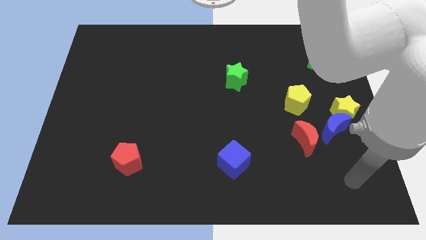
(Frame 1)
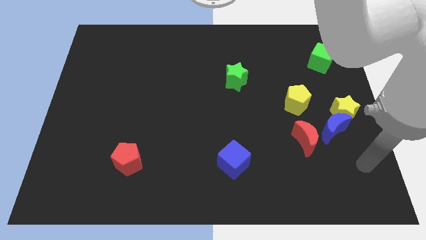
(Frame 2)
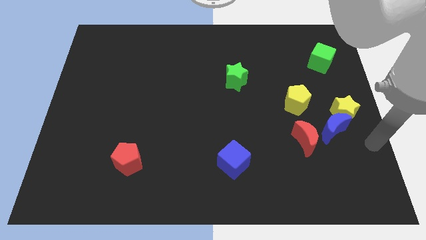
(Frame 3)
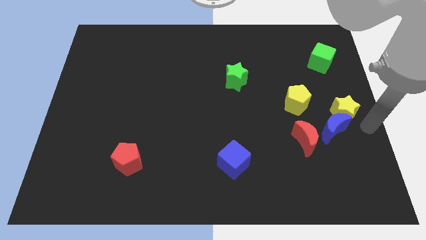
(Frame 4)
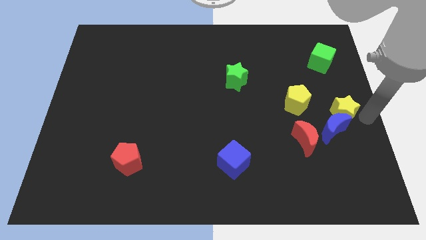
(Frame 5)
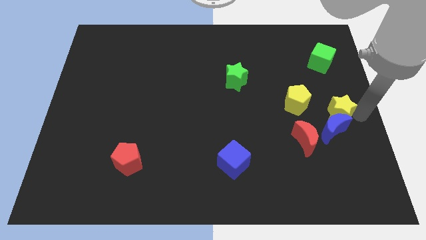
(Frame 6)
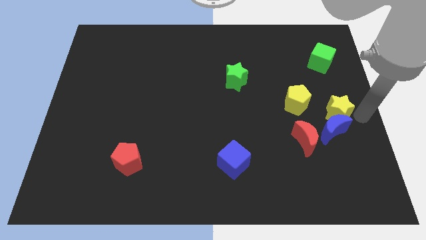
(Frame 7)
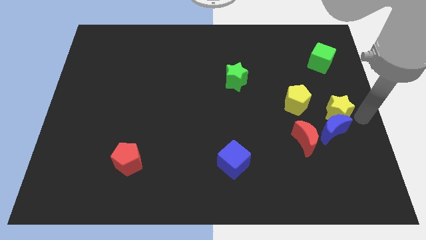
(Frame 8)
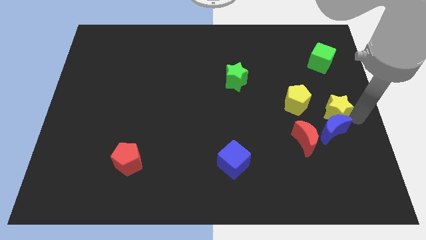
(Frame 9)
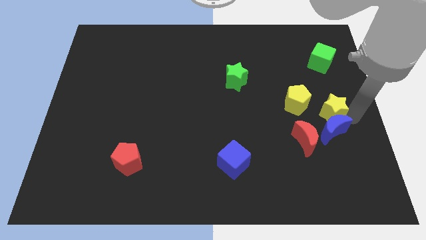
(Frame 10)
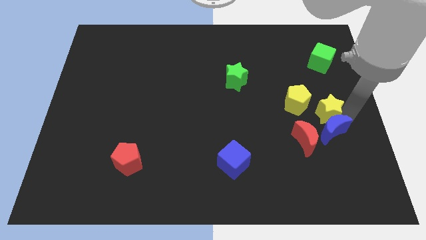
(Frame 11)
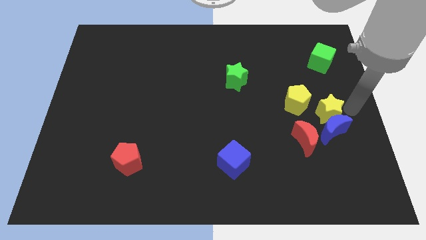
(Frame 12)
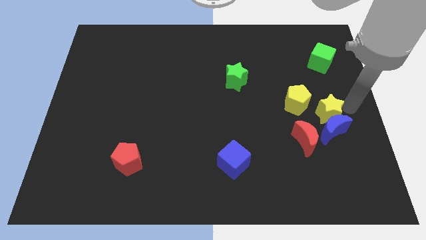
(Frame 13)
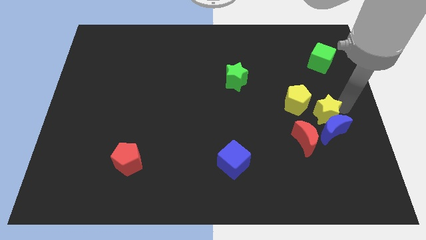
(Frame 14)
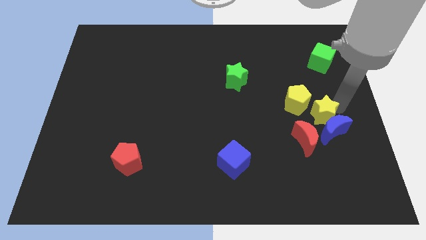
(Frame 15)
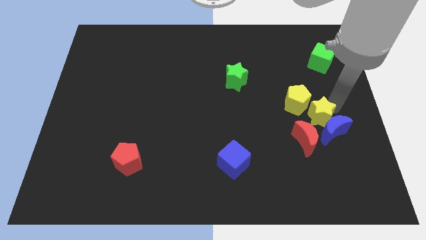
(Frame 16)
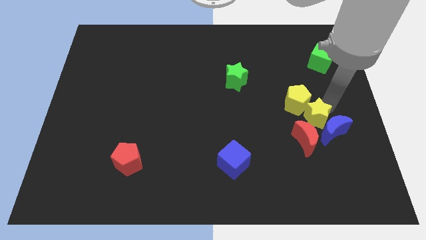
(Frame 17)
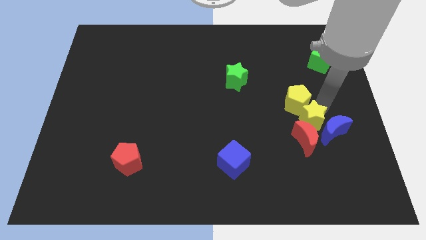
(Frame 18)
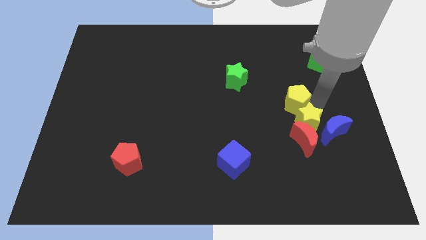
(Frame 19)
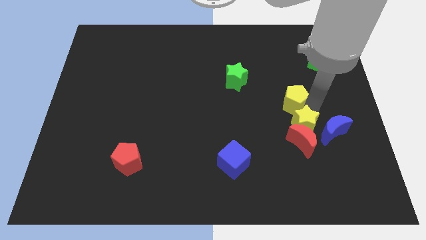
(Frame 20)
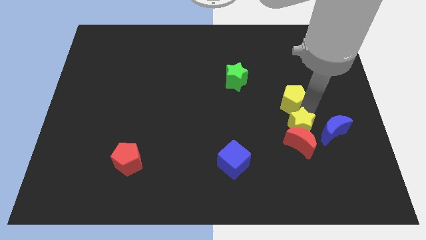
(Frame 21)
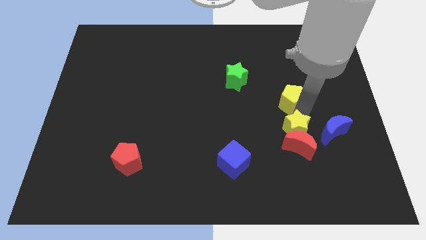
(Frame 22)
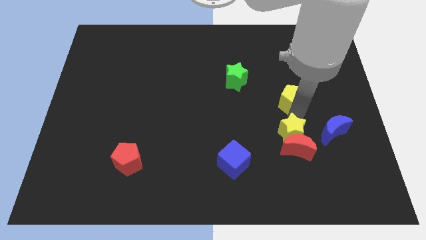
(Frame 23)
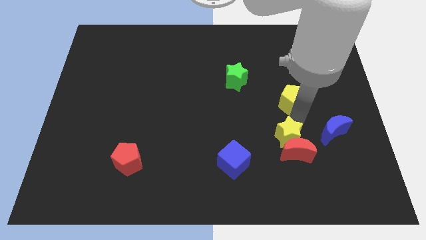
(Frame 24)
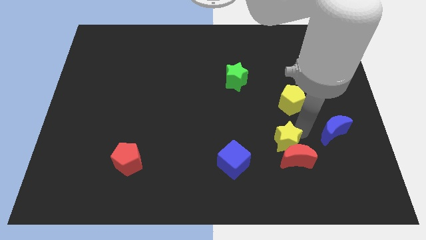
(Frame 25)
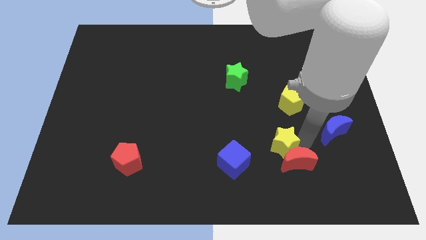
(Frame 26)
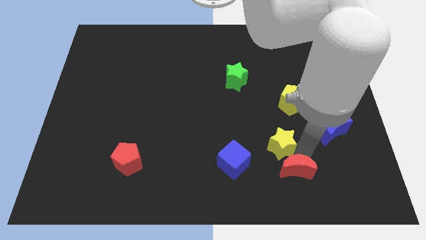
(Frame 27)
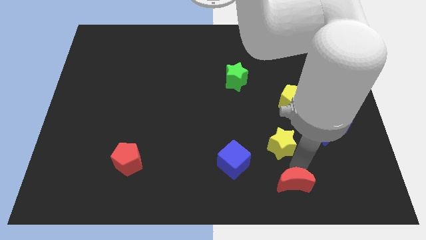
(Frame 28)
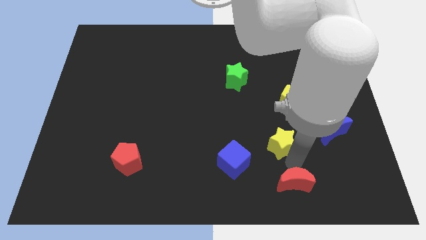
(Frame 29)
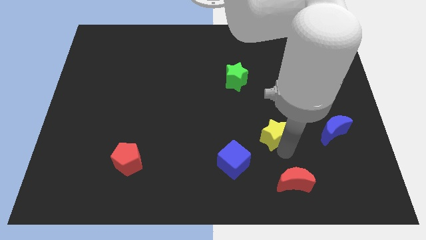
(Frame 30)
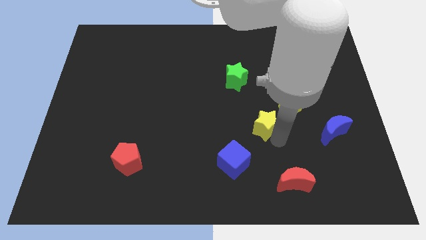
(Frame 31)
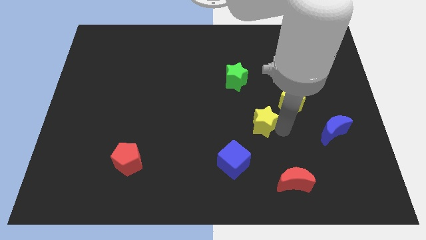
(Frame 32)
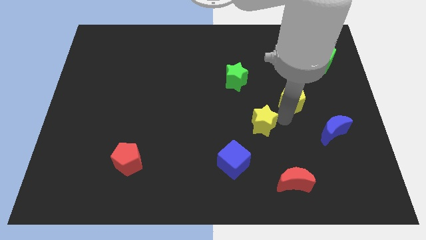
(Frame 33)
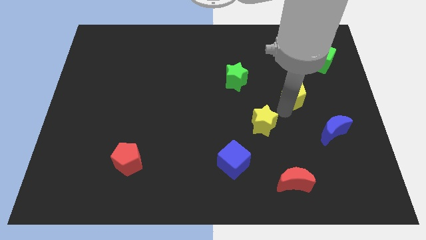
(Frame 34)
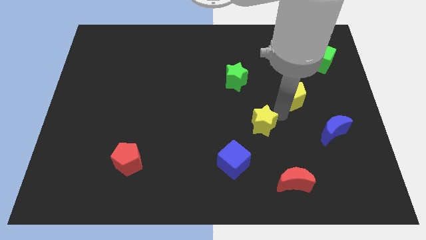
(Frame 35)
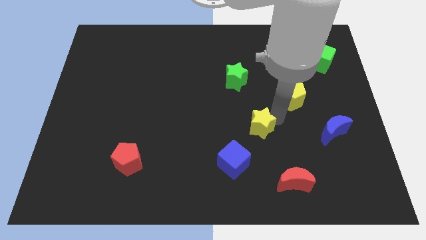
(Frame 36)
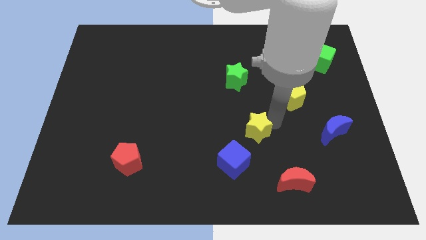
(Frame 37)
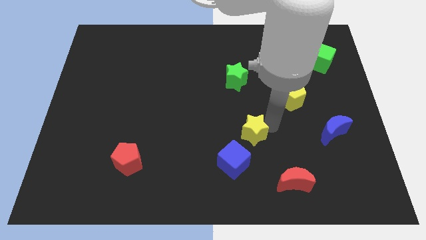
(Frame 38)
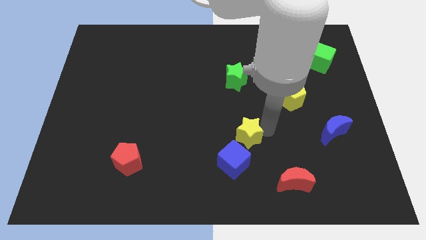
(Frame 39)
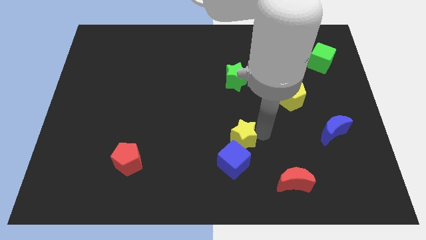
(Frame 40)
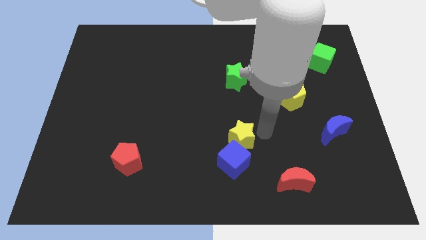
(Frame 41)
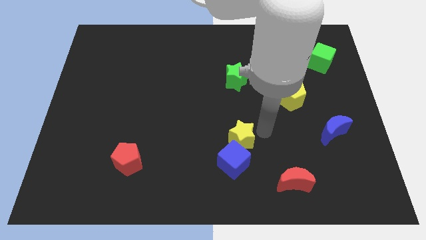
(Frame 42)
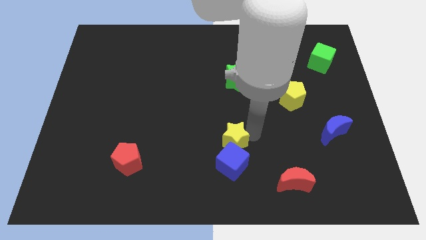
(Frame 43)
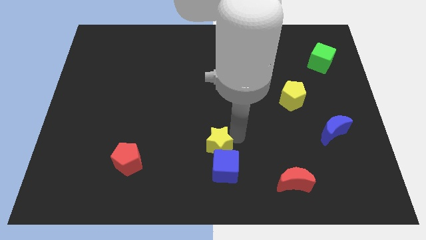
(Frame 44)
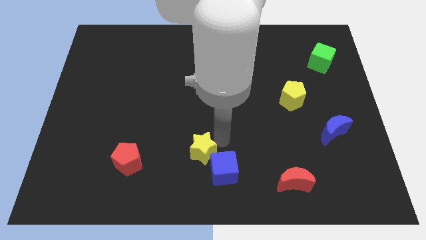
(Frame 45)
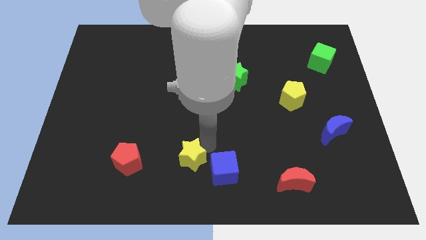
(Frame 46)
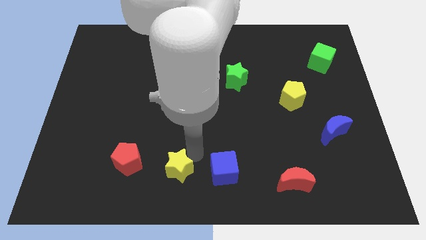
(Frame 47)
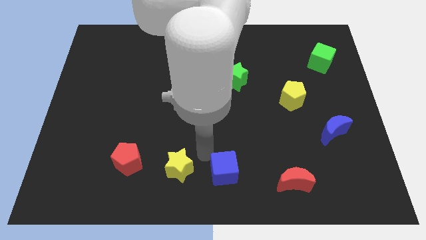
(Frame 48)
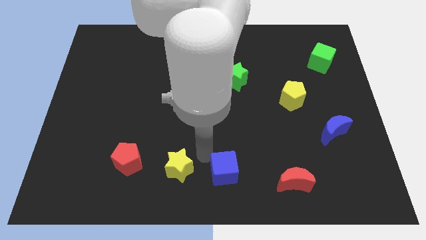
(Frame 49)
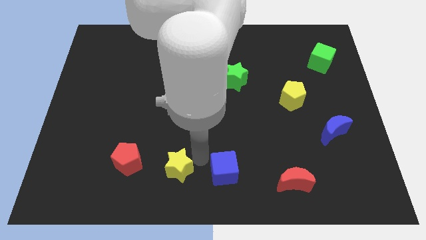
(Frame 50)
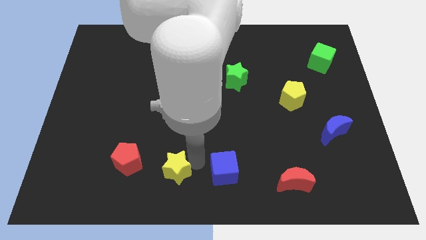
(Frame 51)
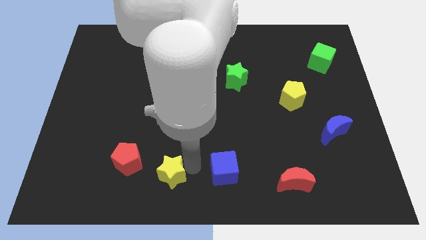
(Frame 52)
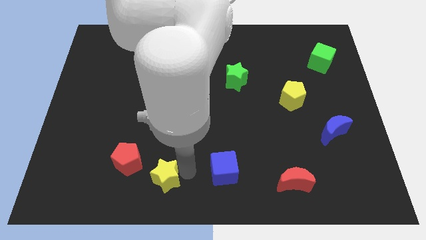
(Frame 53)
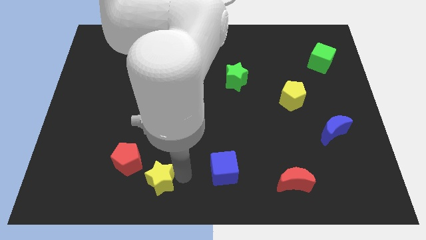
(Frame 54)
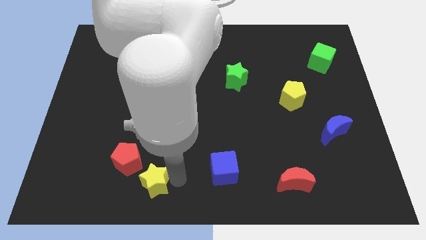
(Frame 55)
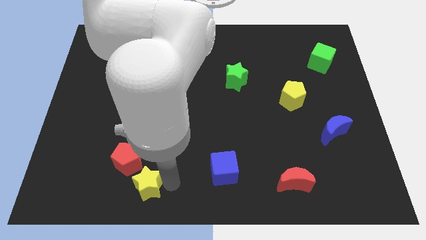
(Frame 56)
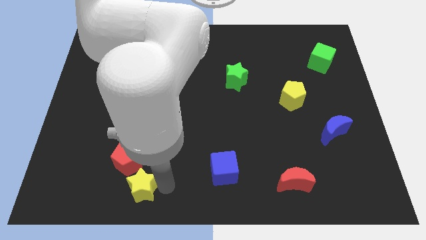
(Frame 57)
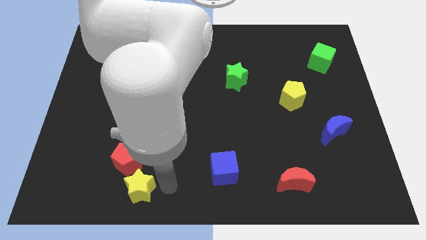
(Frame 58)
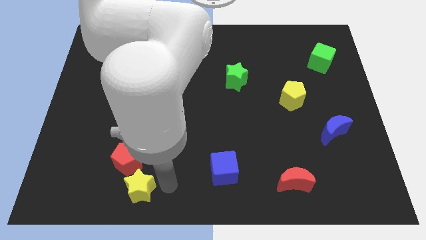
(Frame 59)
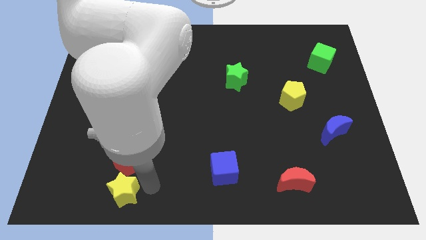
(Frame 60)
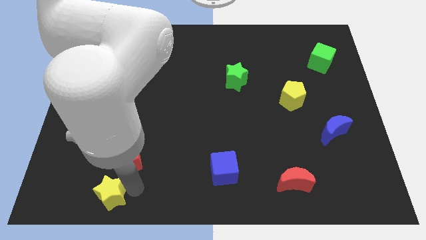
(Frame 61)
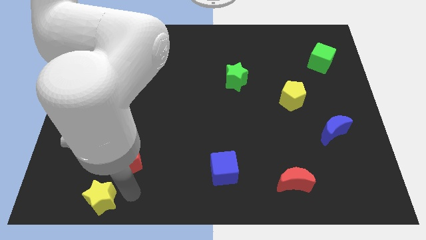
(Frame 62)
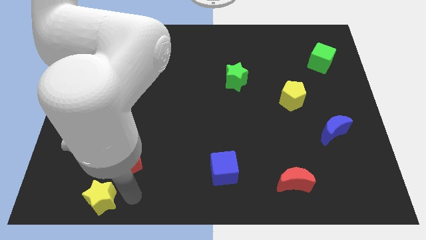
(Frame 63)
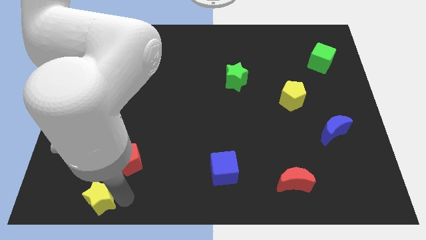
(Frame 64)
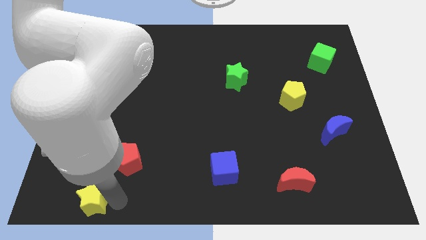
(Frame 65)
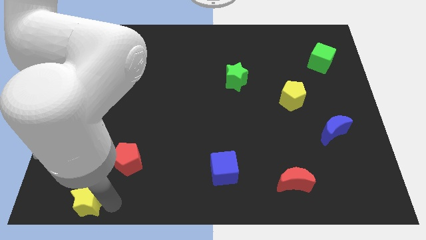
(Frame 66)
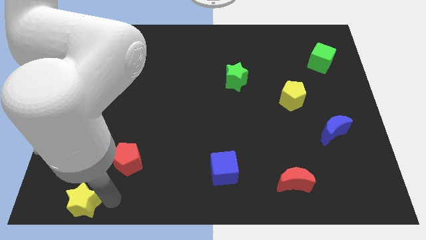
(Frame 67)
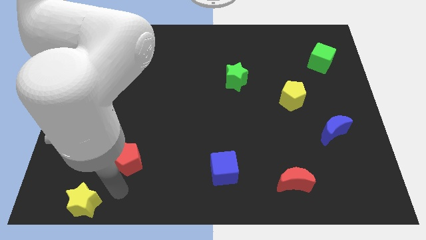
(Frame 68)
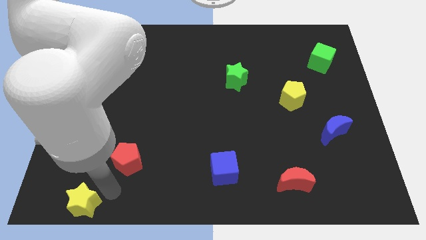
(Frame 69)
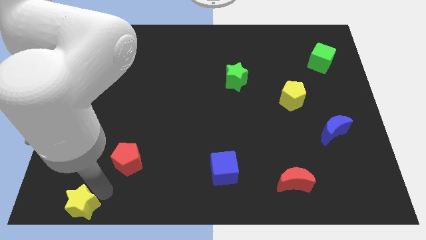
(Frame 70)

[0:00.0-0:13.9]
move the yellow star to the bottom left corner
